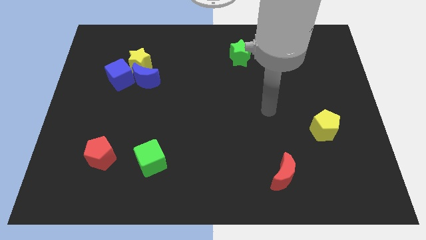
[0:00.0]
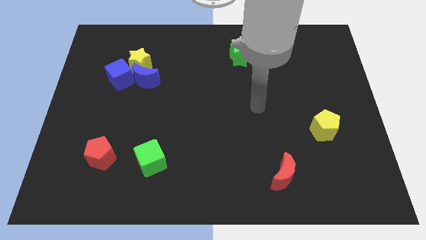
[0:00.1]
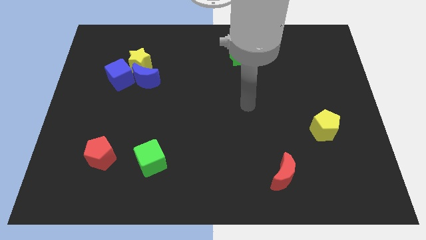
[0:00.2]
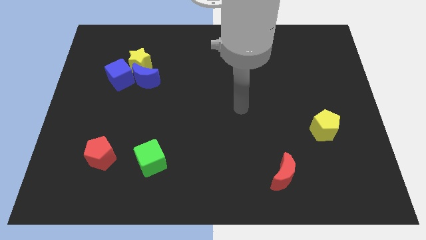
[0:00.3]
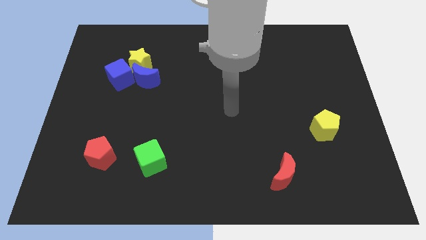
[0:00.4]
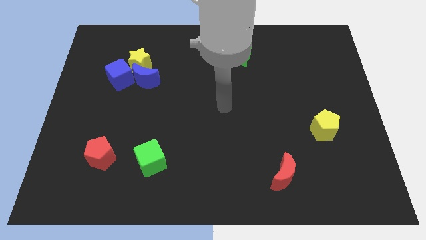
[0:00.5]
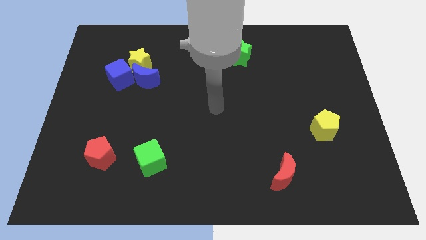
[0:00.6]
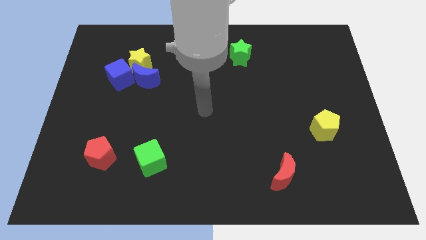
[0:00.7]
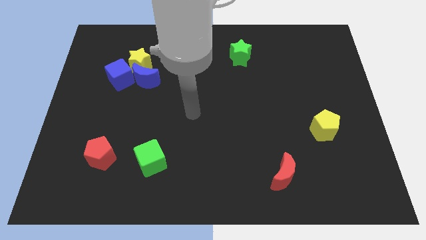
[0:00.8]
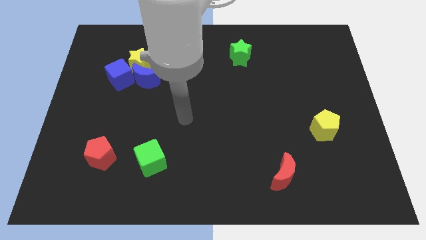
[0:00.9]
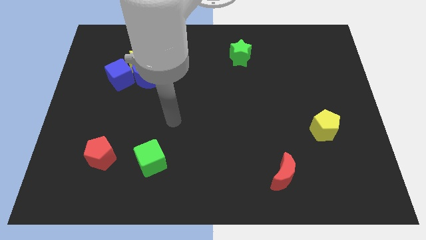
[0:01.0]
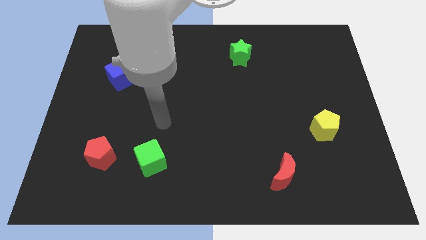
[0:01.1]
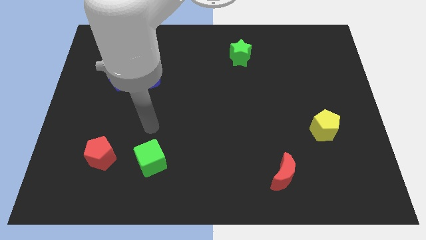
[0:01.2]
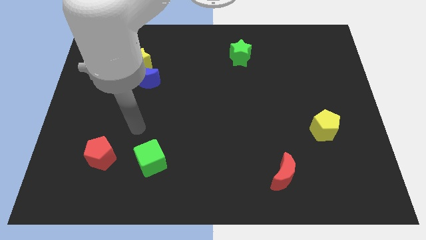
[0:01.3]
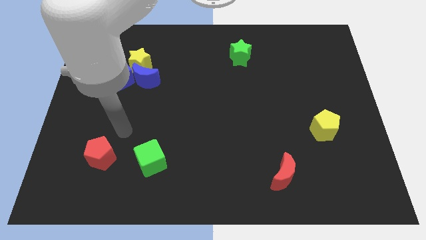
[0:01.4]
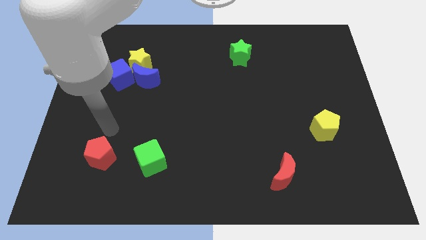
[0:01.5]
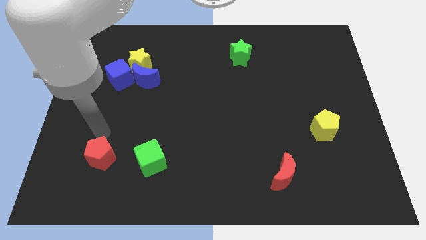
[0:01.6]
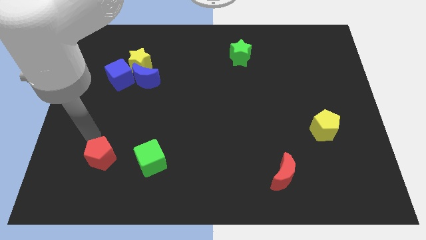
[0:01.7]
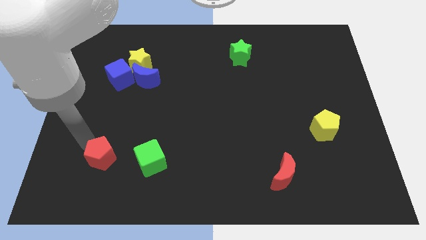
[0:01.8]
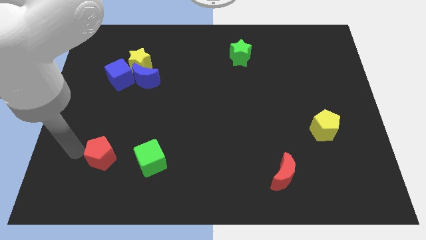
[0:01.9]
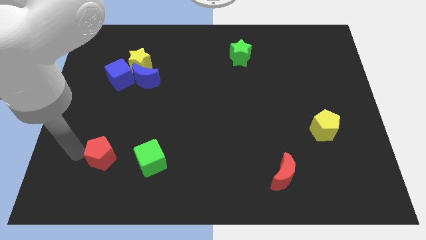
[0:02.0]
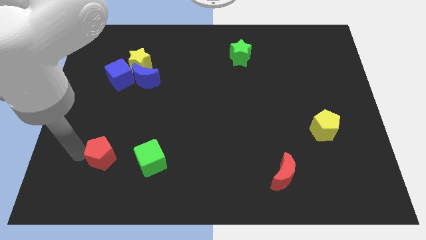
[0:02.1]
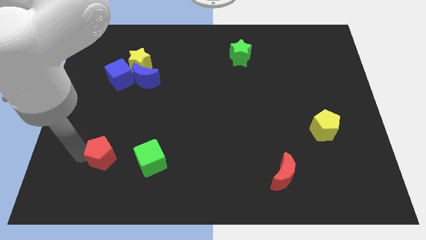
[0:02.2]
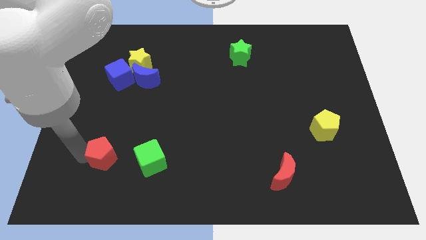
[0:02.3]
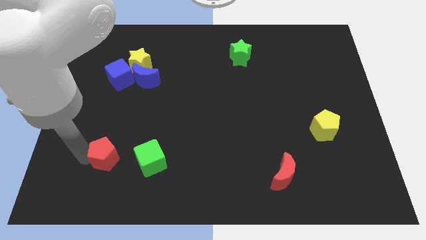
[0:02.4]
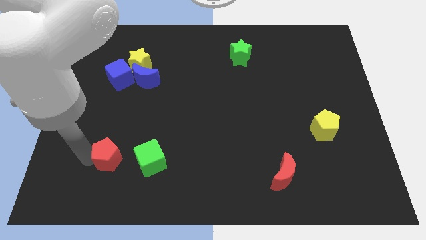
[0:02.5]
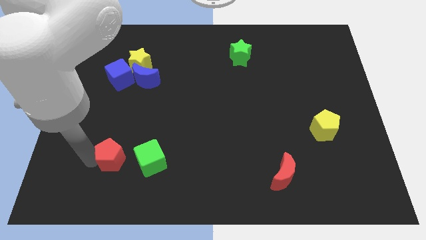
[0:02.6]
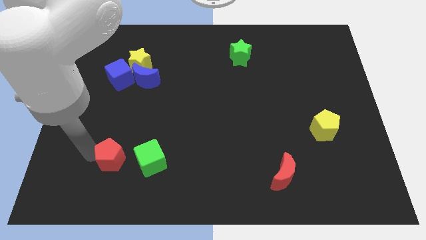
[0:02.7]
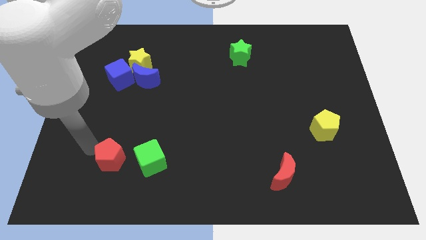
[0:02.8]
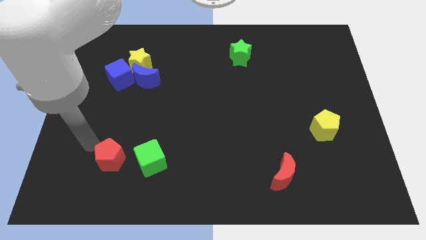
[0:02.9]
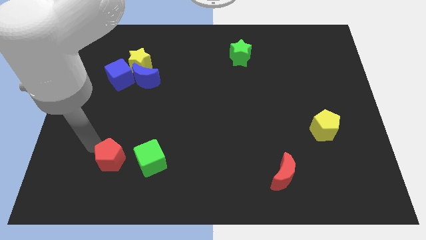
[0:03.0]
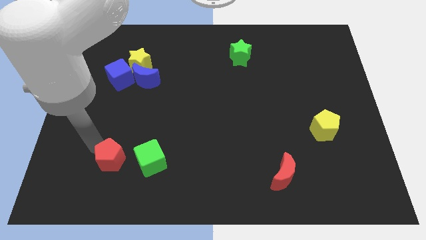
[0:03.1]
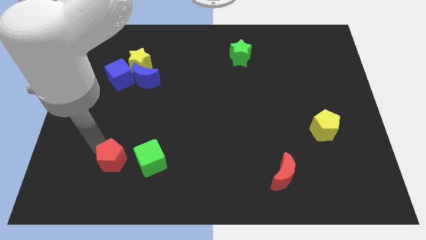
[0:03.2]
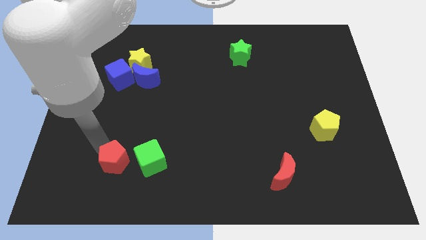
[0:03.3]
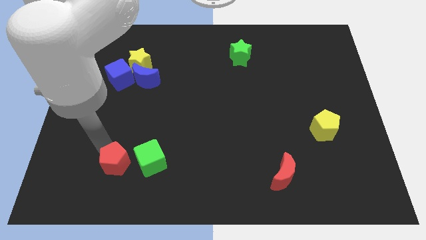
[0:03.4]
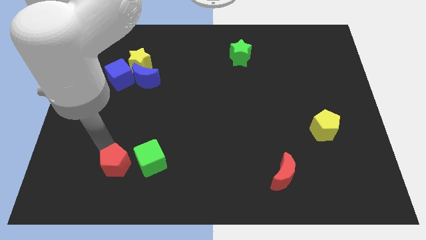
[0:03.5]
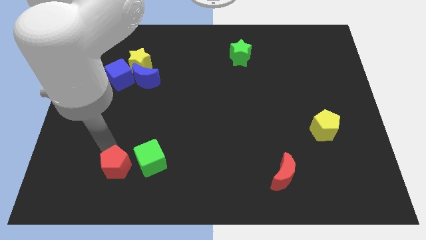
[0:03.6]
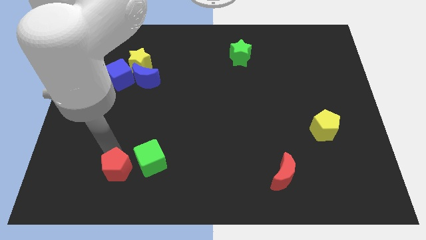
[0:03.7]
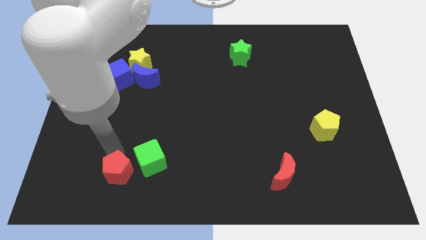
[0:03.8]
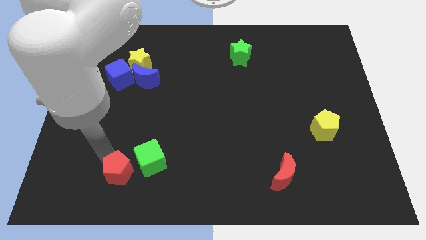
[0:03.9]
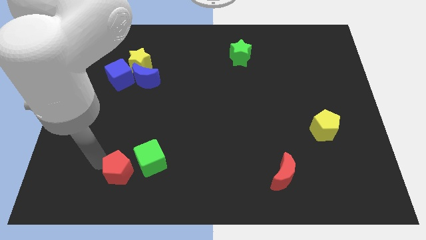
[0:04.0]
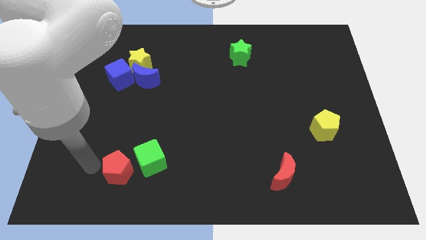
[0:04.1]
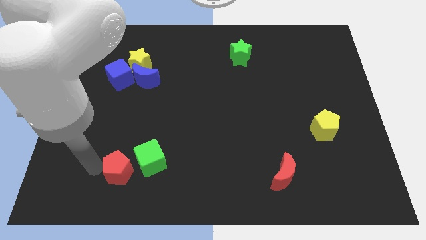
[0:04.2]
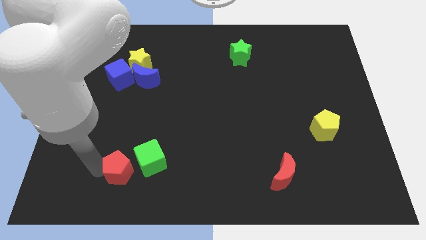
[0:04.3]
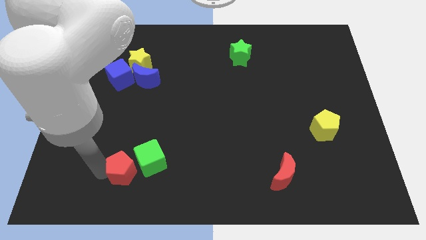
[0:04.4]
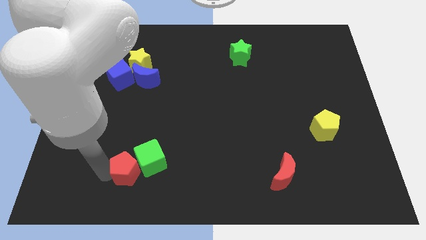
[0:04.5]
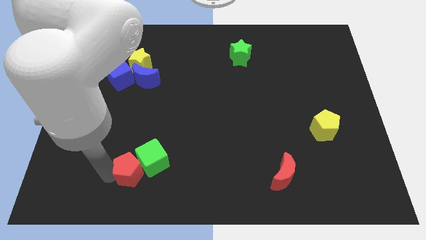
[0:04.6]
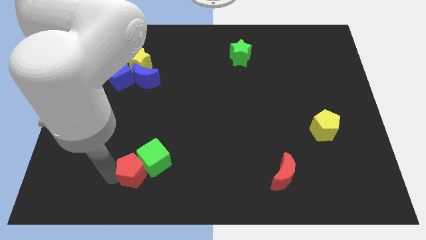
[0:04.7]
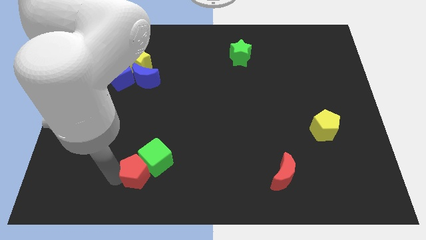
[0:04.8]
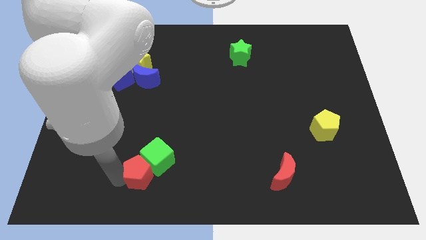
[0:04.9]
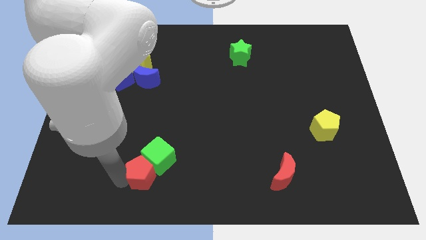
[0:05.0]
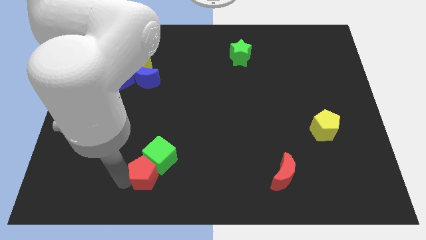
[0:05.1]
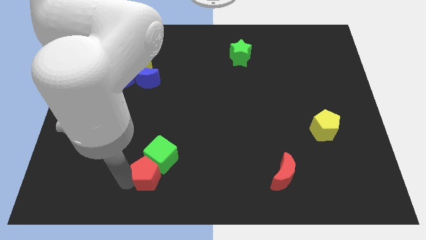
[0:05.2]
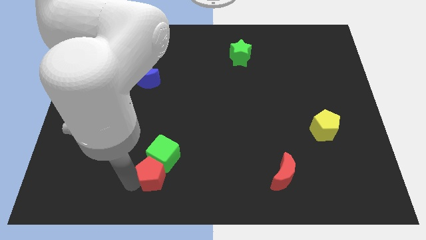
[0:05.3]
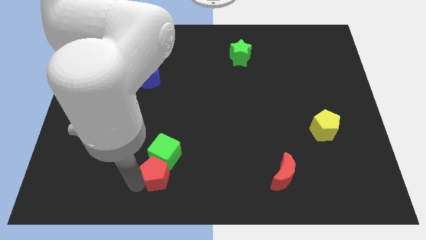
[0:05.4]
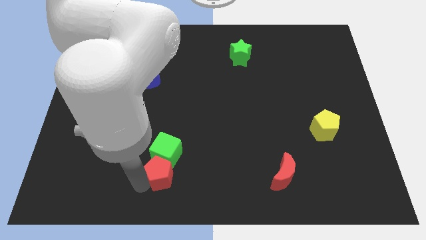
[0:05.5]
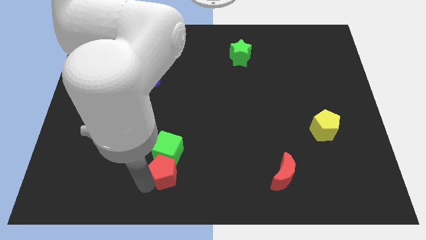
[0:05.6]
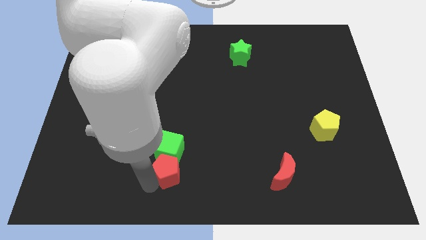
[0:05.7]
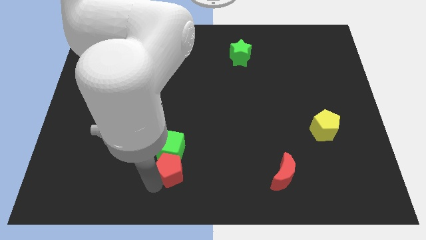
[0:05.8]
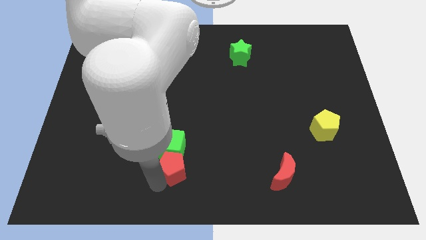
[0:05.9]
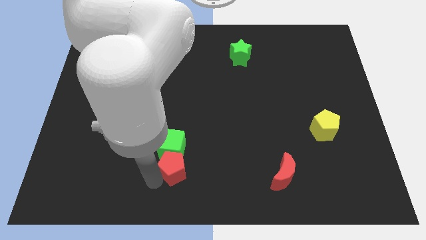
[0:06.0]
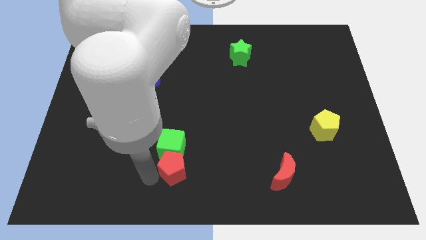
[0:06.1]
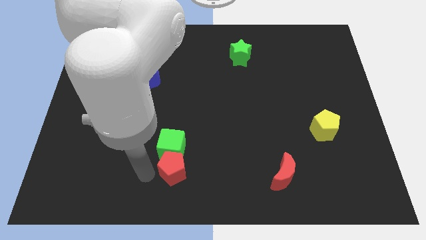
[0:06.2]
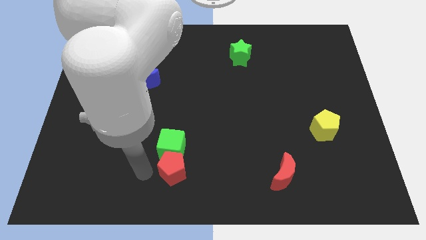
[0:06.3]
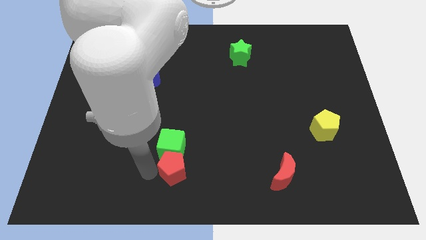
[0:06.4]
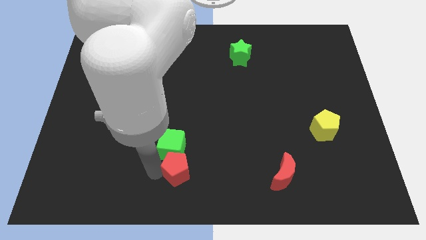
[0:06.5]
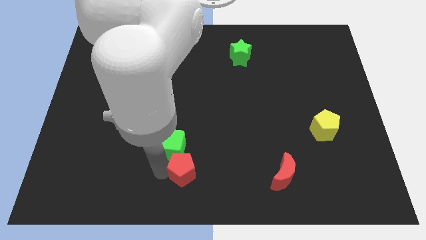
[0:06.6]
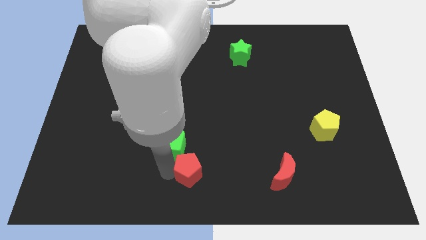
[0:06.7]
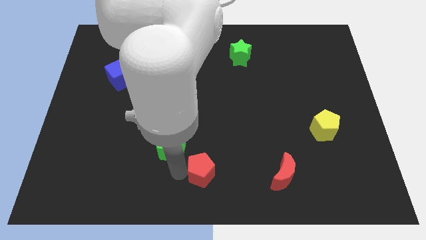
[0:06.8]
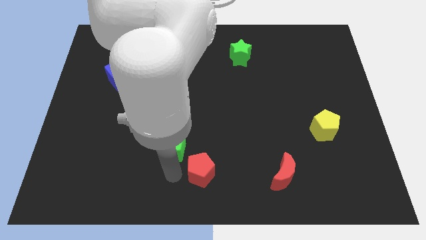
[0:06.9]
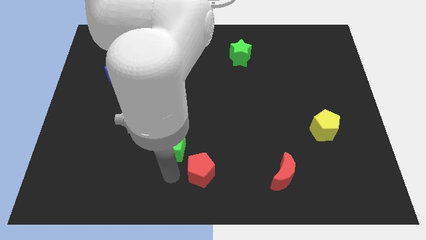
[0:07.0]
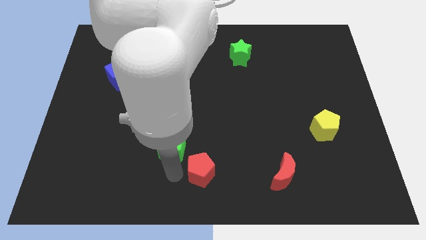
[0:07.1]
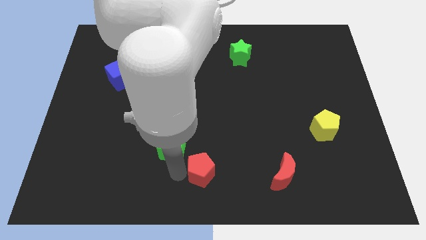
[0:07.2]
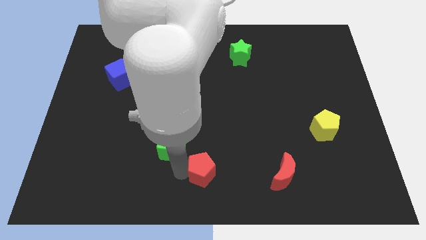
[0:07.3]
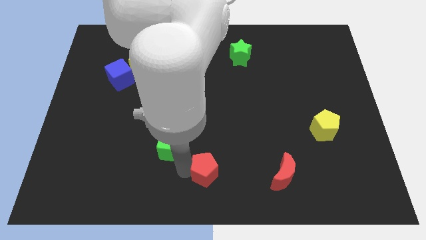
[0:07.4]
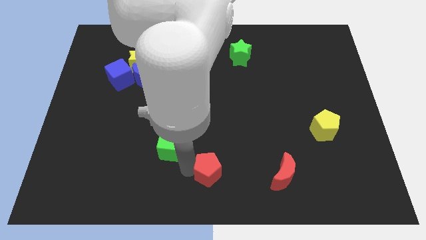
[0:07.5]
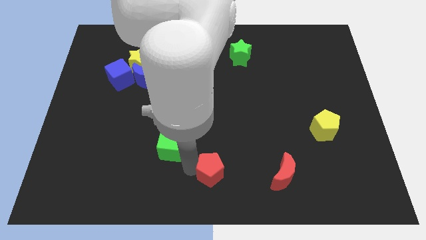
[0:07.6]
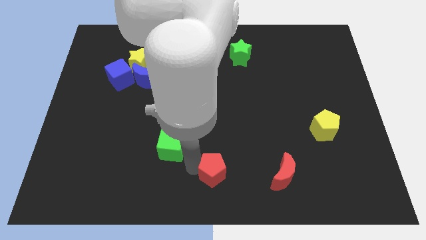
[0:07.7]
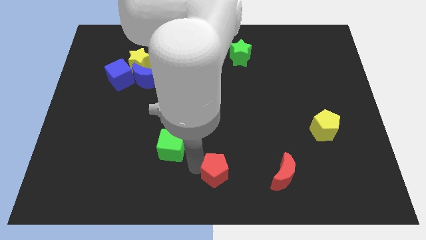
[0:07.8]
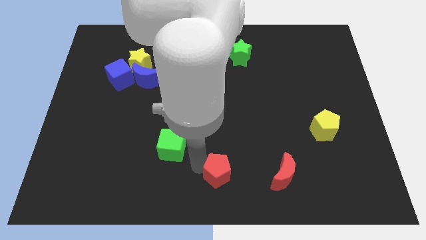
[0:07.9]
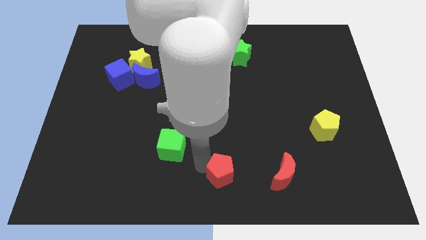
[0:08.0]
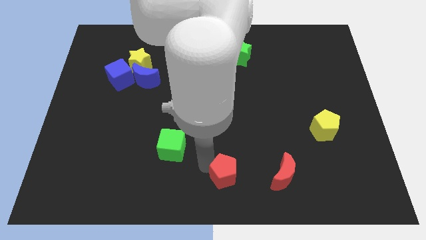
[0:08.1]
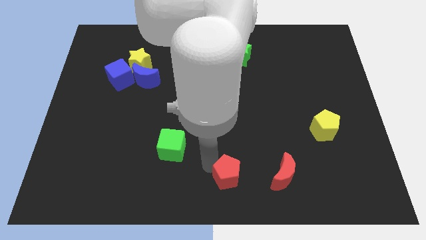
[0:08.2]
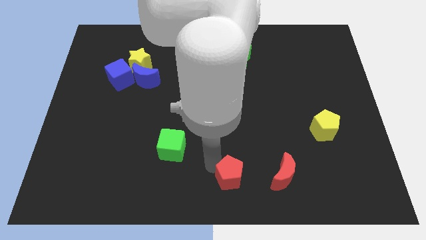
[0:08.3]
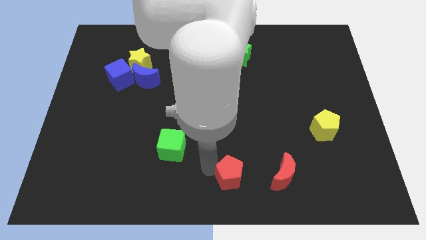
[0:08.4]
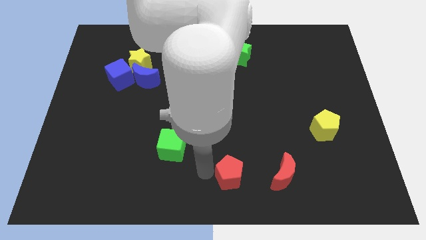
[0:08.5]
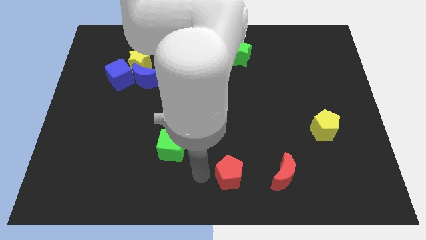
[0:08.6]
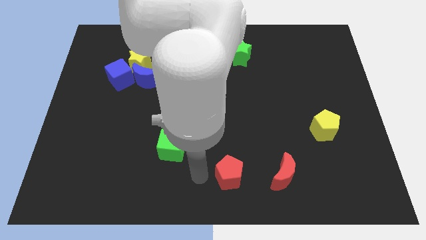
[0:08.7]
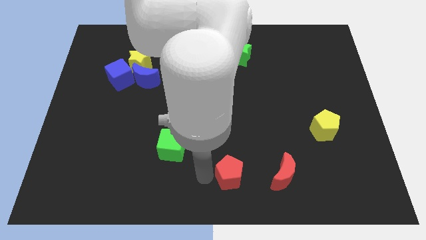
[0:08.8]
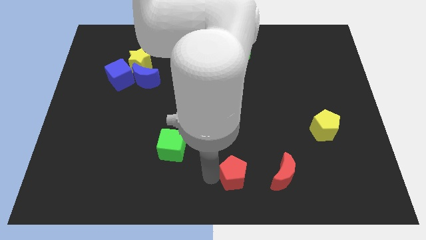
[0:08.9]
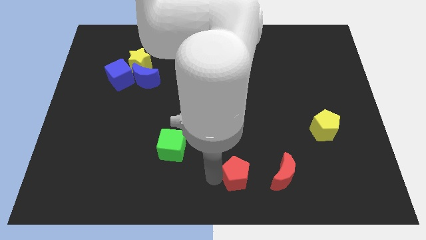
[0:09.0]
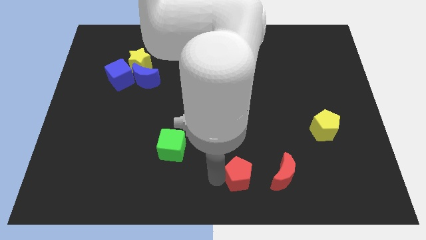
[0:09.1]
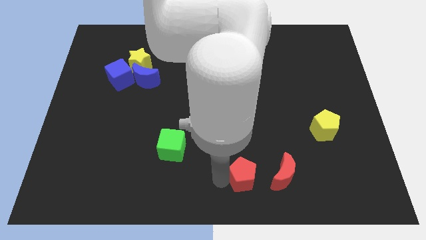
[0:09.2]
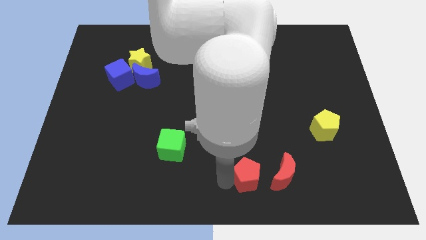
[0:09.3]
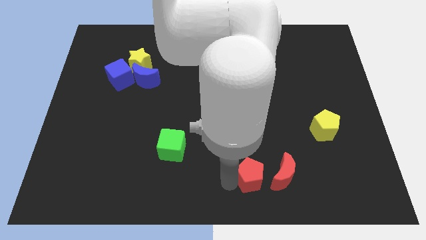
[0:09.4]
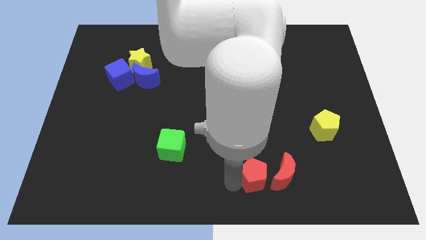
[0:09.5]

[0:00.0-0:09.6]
move the red pentagon next to the red moon
